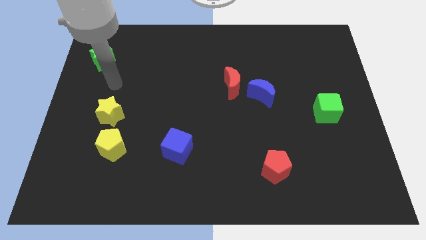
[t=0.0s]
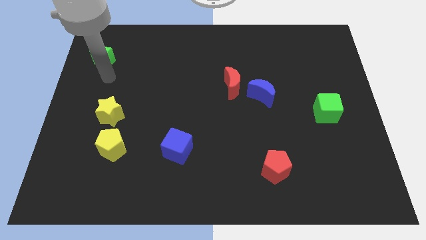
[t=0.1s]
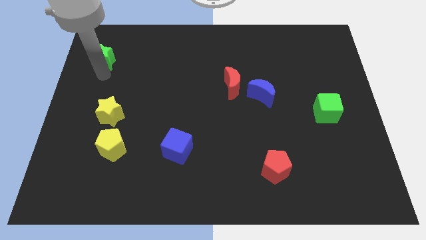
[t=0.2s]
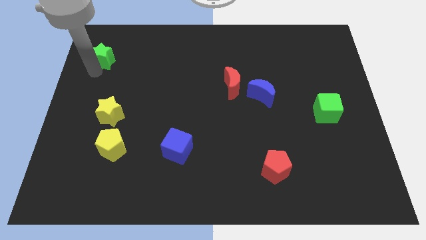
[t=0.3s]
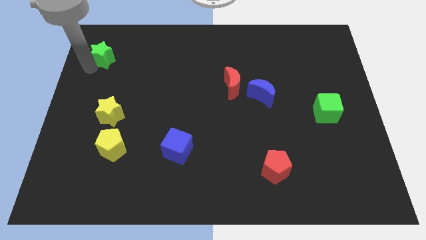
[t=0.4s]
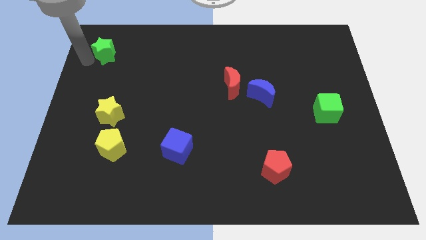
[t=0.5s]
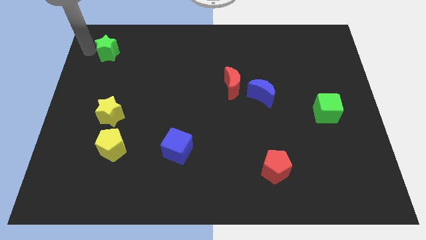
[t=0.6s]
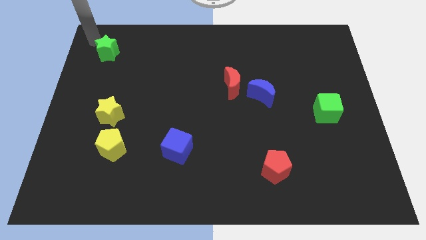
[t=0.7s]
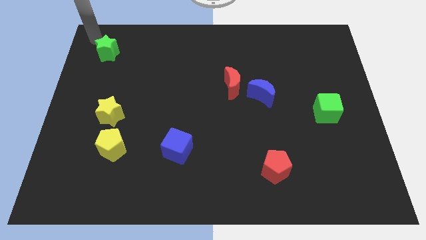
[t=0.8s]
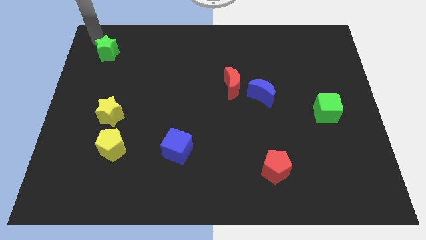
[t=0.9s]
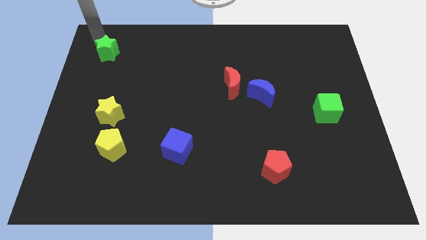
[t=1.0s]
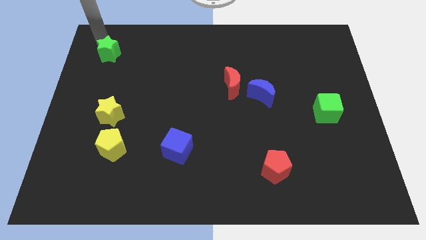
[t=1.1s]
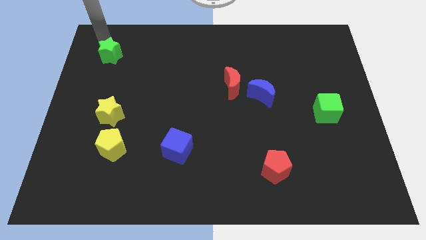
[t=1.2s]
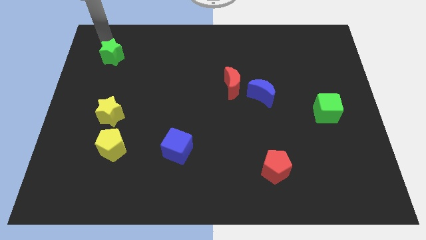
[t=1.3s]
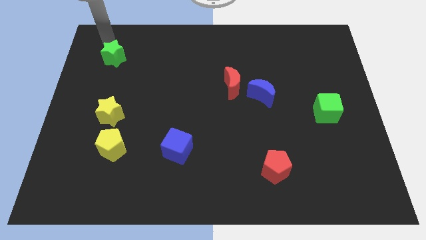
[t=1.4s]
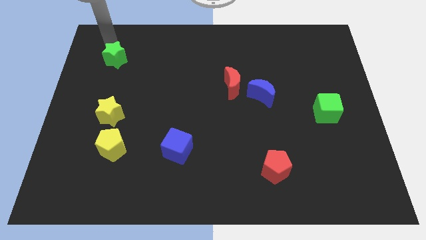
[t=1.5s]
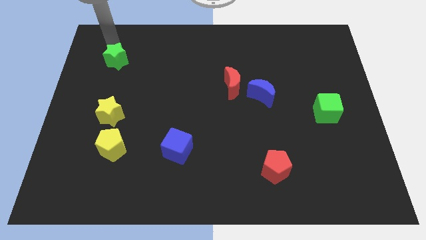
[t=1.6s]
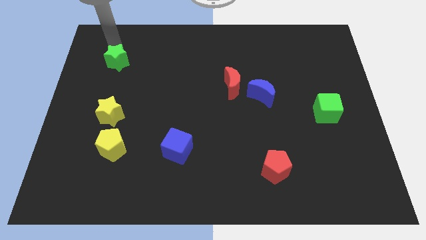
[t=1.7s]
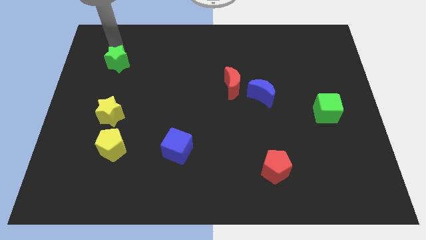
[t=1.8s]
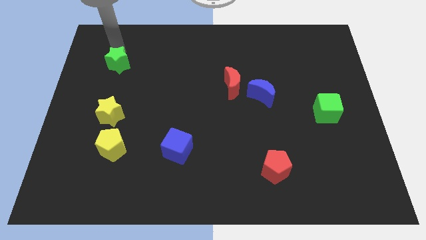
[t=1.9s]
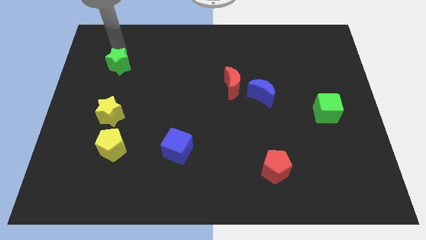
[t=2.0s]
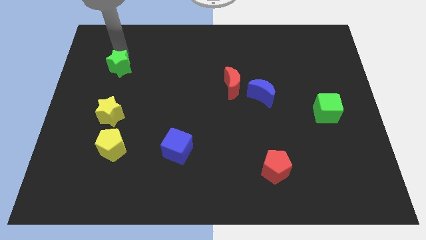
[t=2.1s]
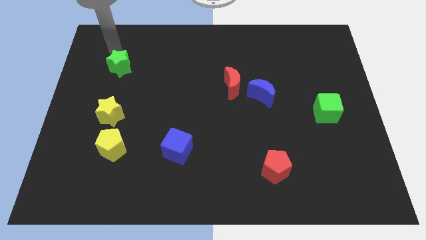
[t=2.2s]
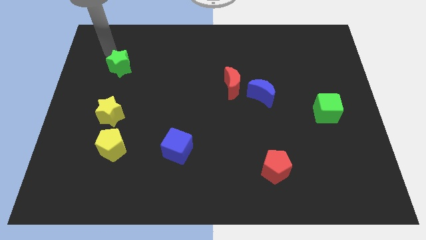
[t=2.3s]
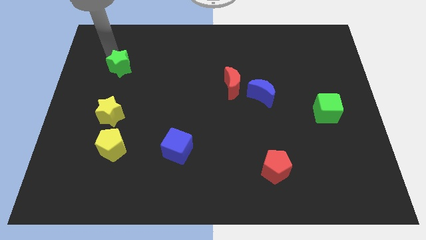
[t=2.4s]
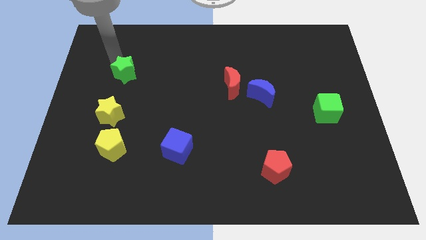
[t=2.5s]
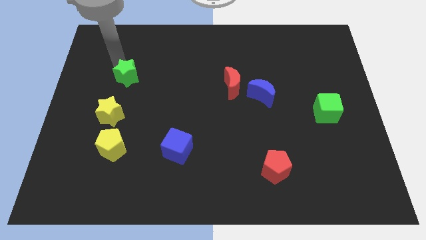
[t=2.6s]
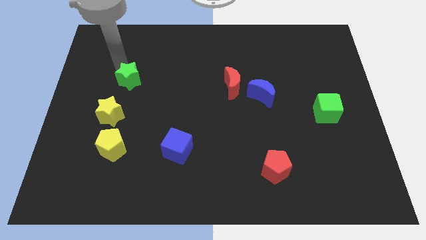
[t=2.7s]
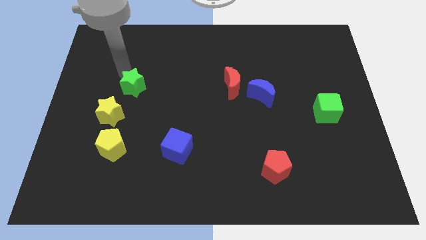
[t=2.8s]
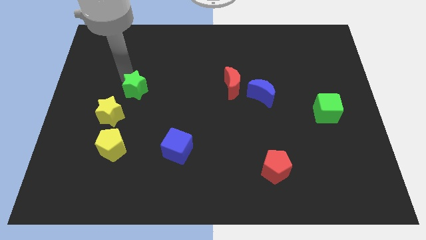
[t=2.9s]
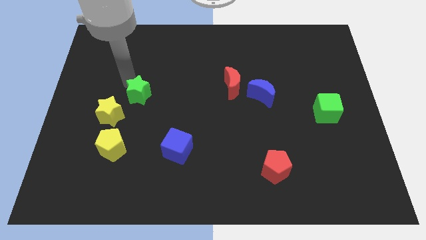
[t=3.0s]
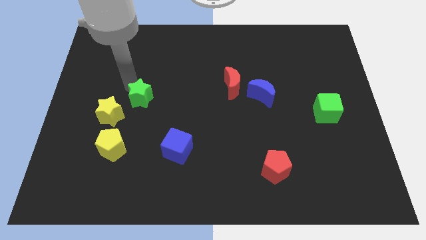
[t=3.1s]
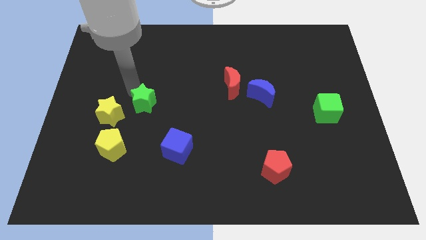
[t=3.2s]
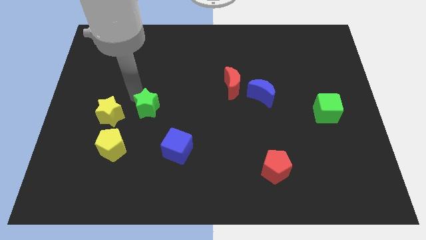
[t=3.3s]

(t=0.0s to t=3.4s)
slide the green star diagonally down and to the right

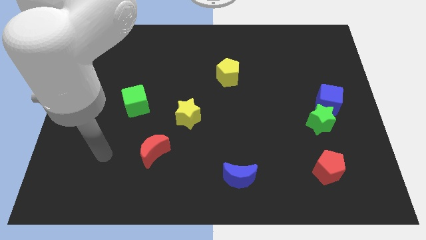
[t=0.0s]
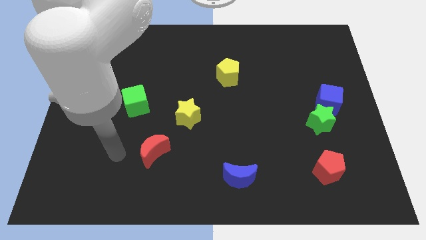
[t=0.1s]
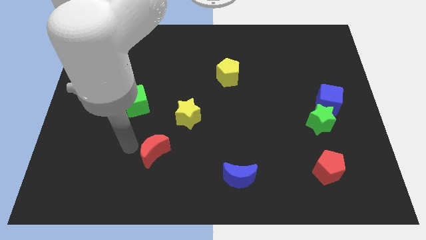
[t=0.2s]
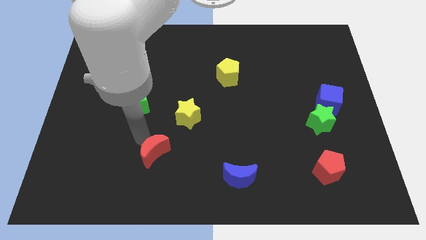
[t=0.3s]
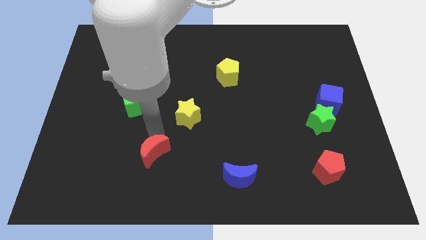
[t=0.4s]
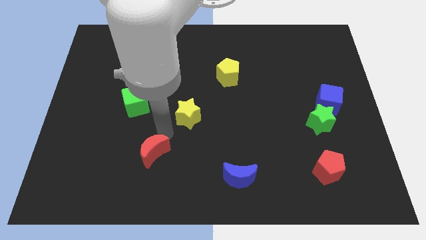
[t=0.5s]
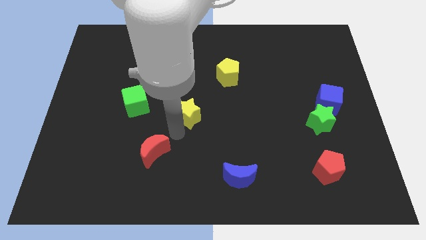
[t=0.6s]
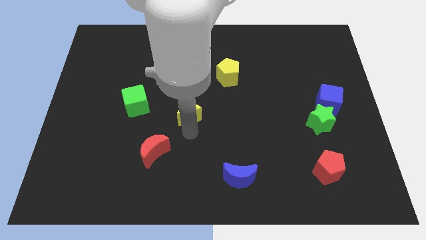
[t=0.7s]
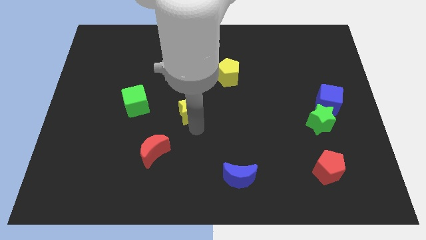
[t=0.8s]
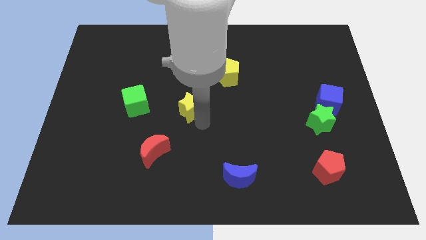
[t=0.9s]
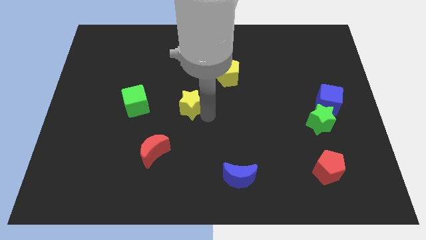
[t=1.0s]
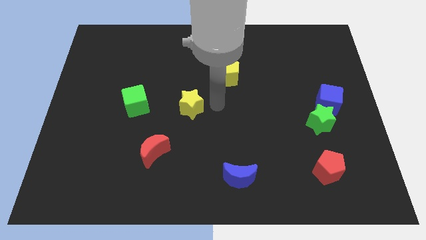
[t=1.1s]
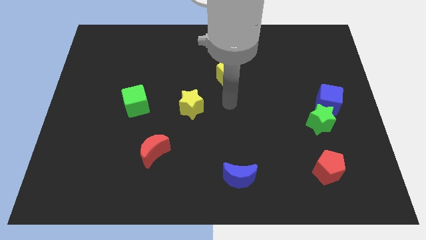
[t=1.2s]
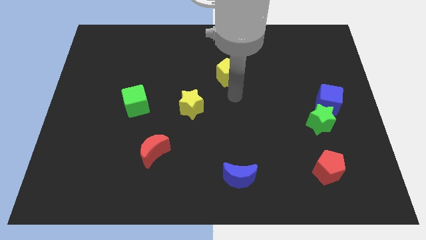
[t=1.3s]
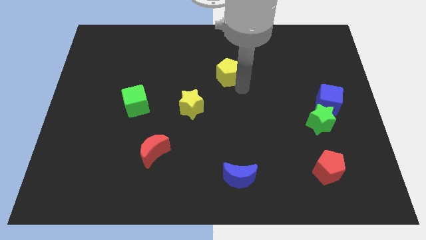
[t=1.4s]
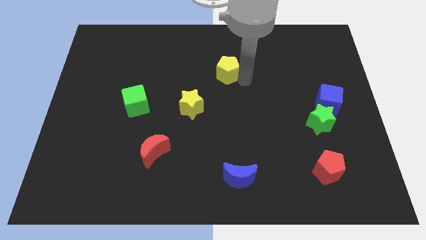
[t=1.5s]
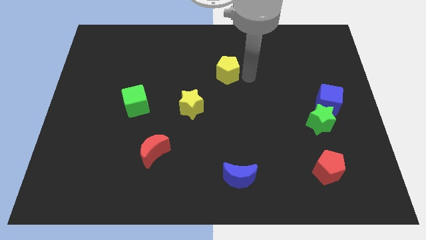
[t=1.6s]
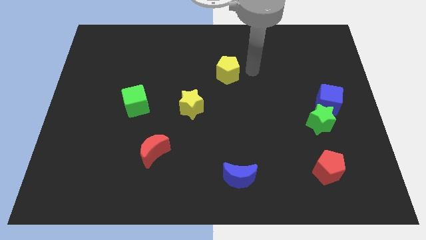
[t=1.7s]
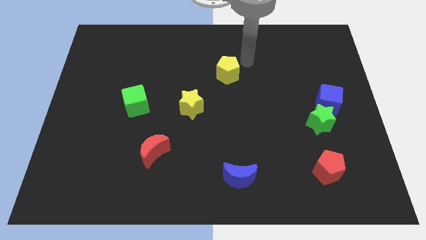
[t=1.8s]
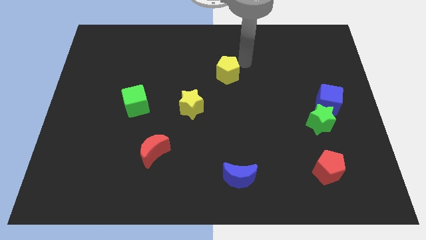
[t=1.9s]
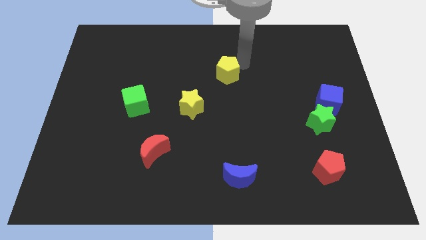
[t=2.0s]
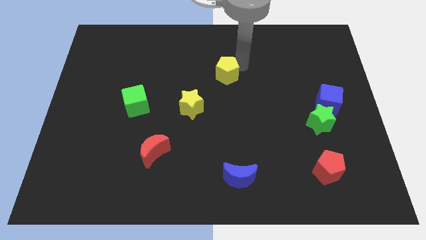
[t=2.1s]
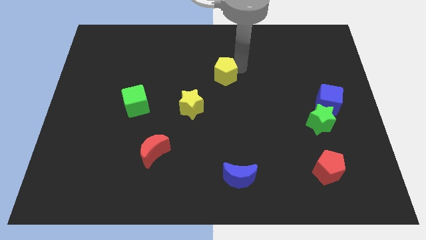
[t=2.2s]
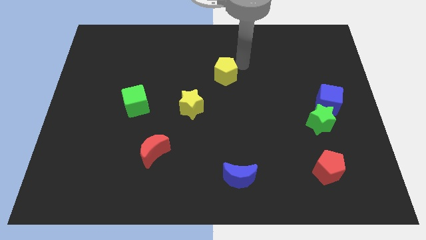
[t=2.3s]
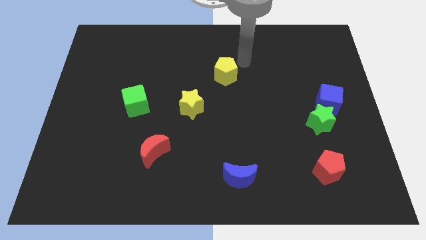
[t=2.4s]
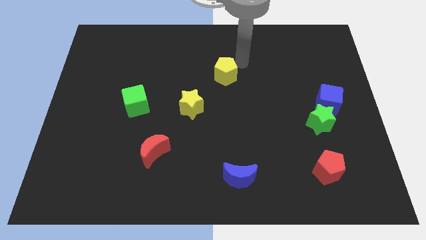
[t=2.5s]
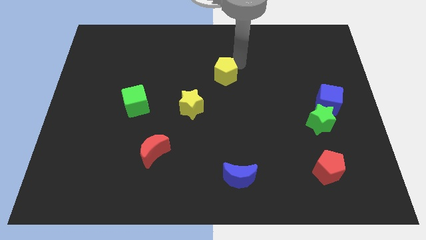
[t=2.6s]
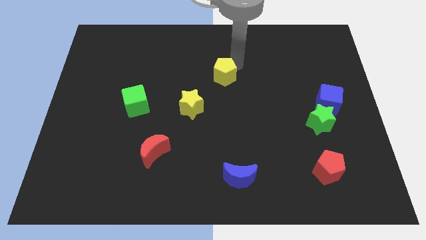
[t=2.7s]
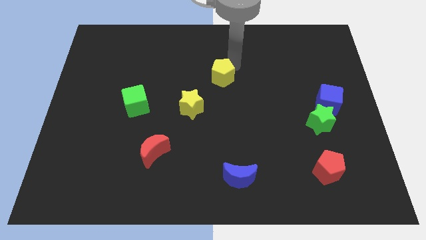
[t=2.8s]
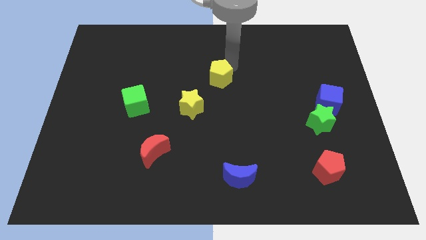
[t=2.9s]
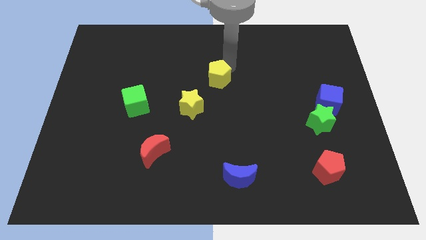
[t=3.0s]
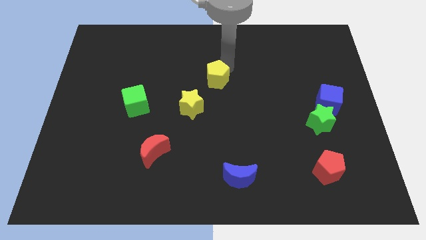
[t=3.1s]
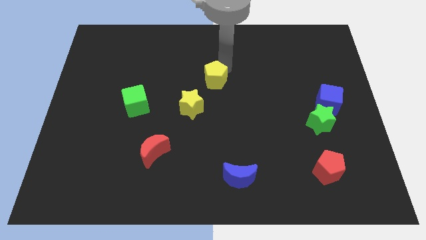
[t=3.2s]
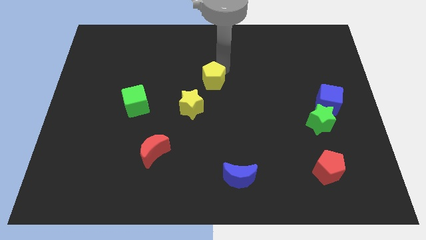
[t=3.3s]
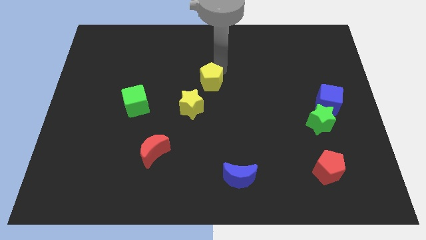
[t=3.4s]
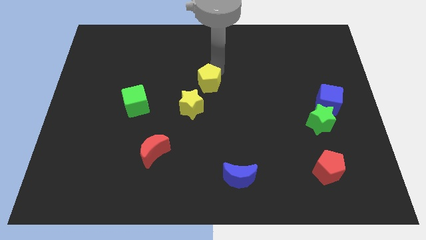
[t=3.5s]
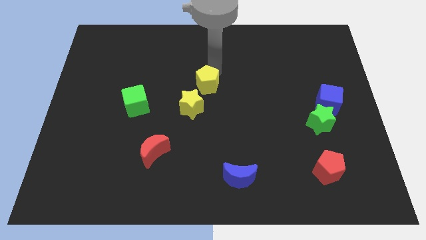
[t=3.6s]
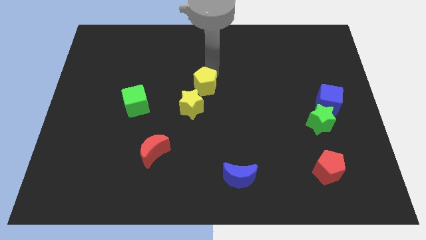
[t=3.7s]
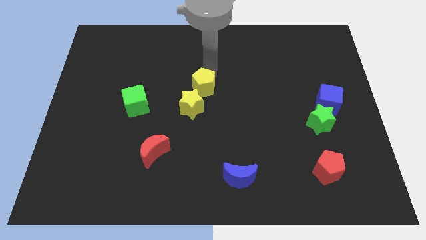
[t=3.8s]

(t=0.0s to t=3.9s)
slightly move the yellow pentagon down and then left

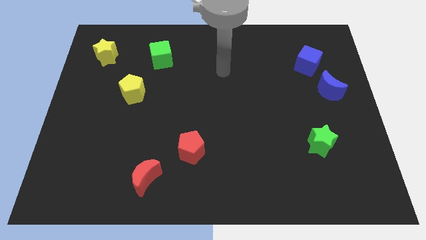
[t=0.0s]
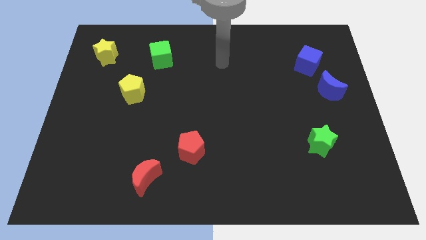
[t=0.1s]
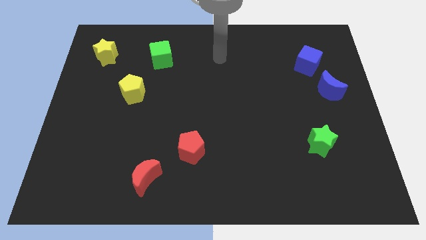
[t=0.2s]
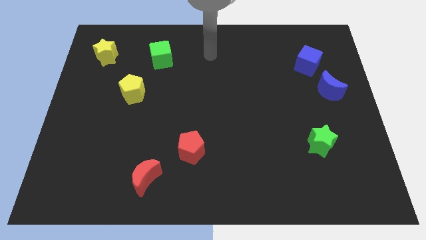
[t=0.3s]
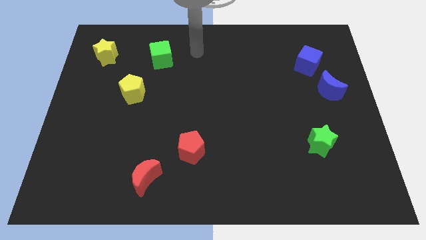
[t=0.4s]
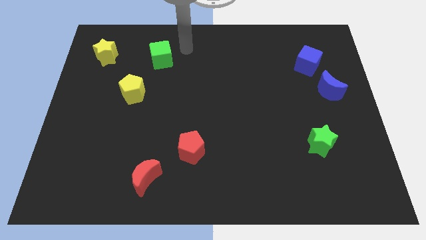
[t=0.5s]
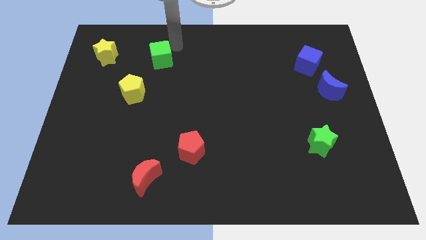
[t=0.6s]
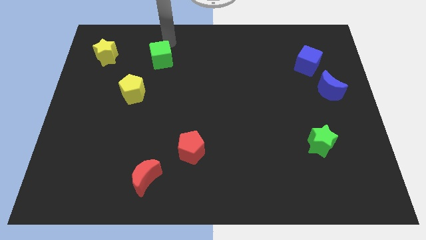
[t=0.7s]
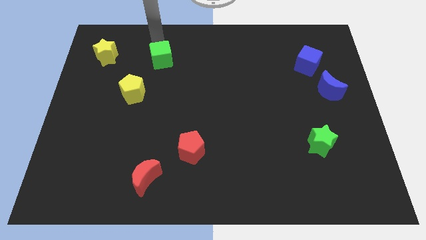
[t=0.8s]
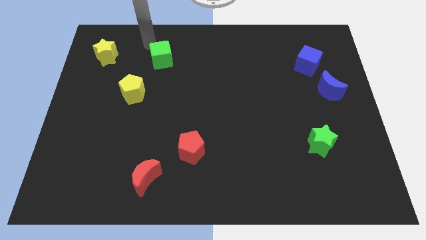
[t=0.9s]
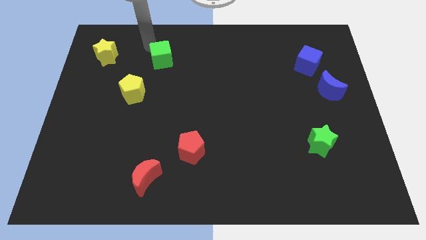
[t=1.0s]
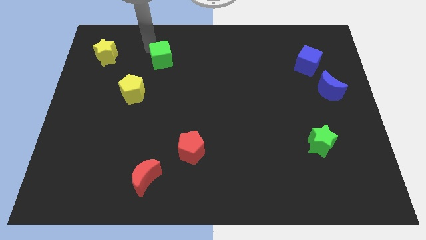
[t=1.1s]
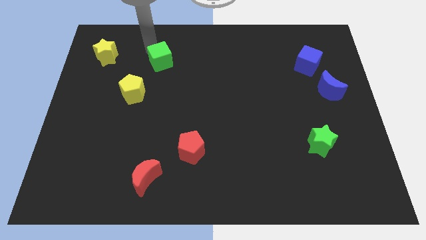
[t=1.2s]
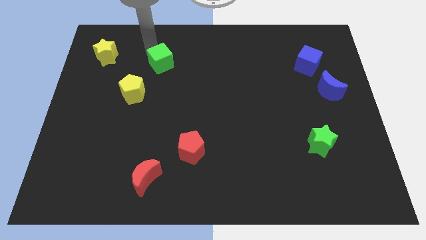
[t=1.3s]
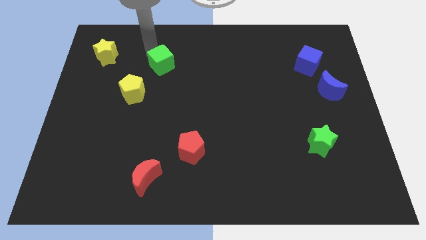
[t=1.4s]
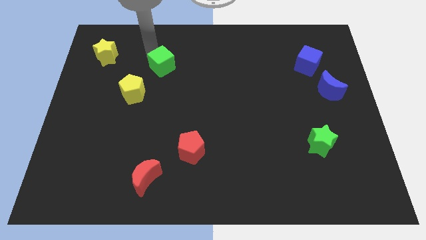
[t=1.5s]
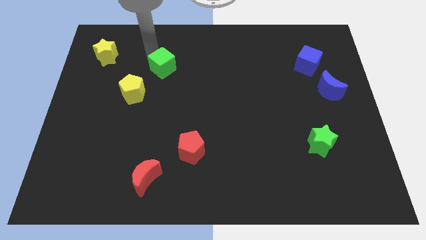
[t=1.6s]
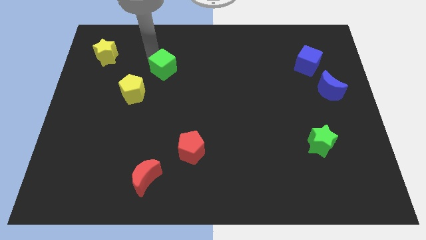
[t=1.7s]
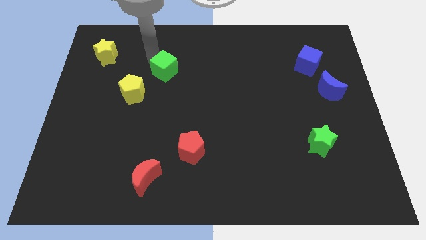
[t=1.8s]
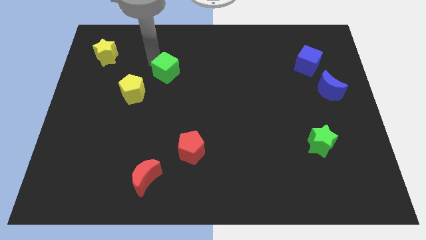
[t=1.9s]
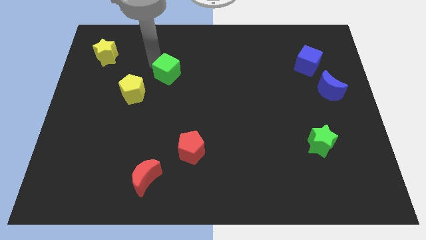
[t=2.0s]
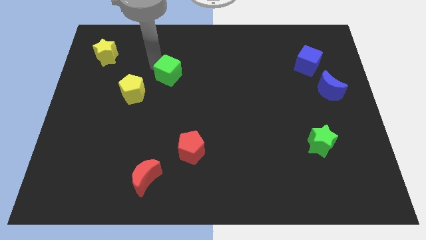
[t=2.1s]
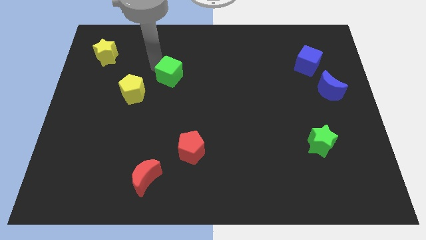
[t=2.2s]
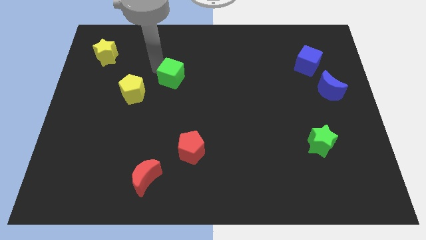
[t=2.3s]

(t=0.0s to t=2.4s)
push the green cube downwards and then right a little
